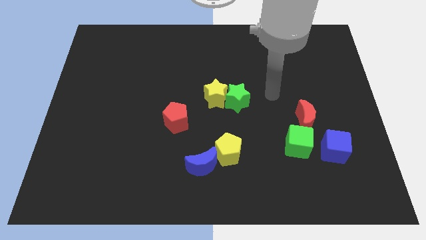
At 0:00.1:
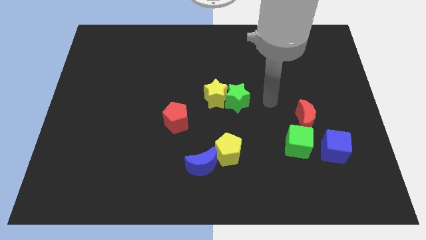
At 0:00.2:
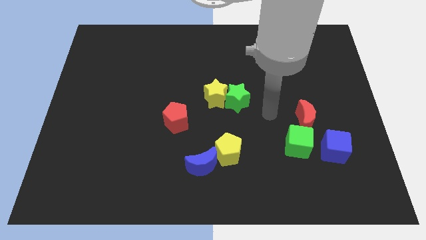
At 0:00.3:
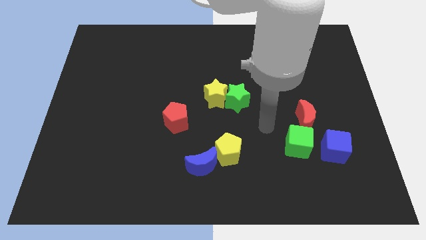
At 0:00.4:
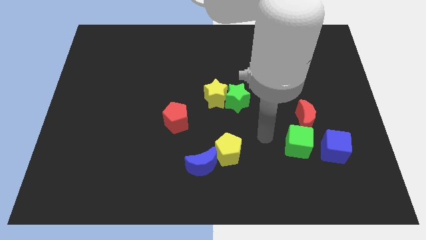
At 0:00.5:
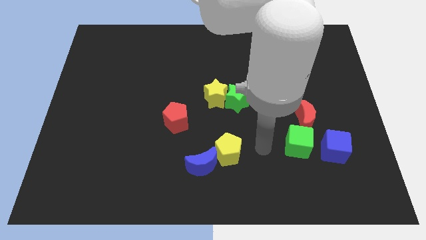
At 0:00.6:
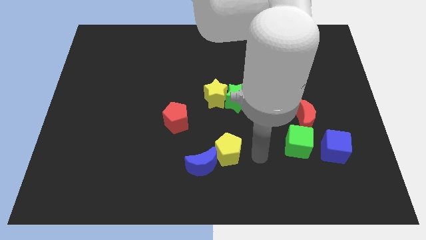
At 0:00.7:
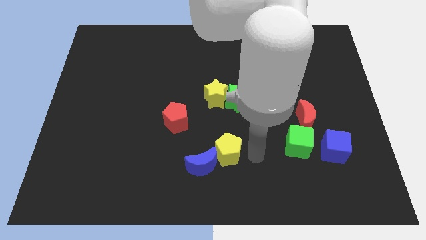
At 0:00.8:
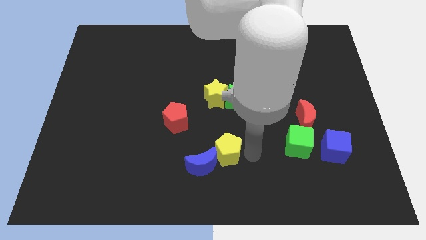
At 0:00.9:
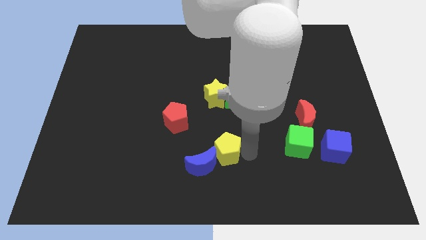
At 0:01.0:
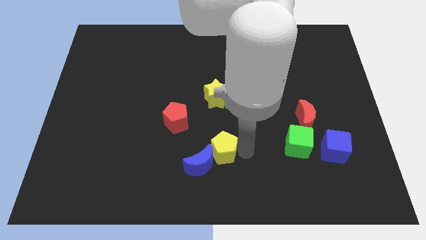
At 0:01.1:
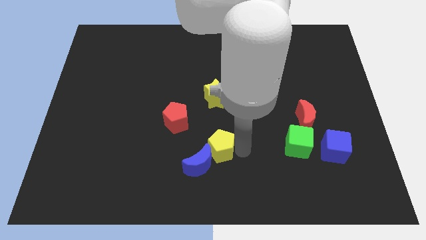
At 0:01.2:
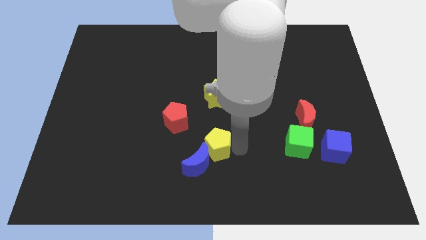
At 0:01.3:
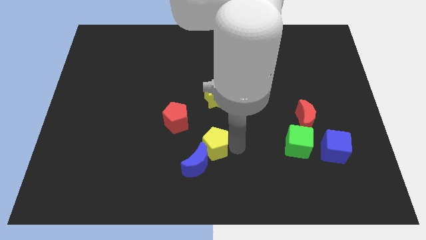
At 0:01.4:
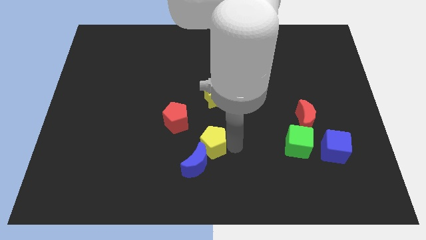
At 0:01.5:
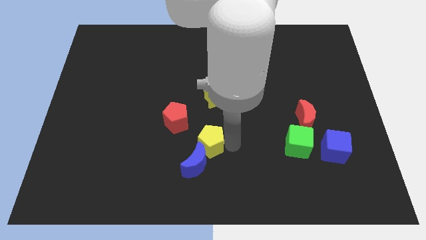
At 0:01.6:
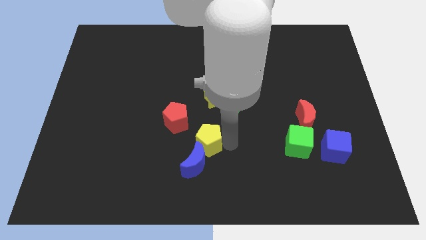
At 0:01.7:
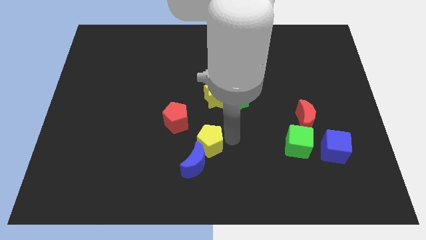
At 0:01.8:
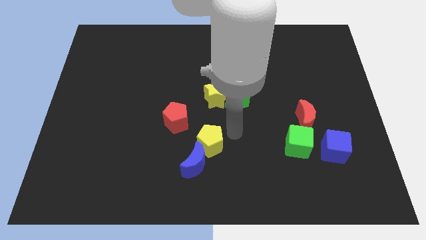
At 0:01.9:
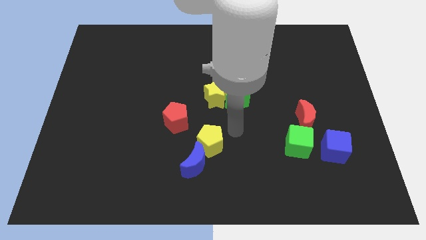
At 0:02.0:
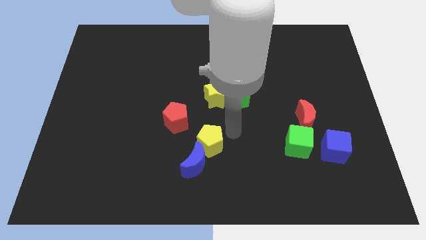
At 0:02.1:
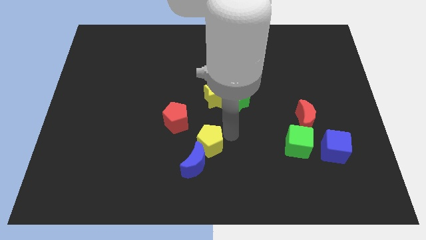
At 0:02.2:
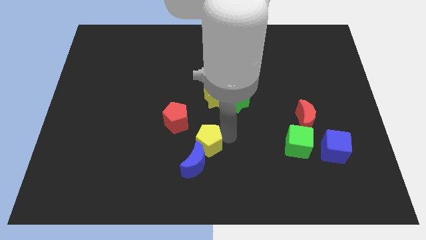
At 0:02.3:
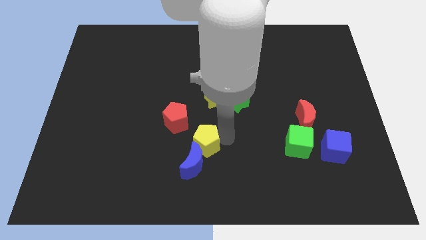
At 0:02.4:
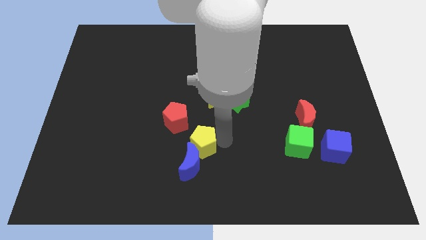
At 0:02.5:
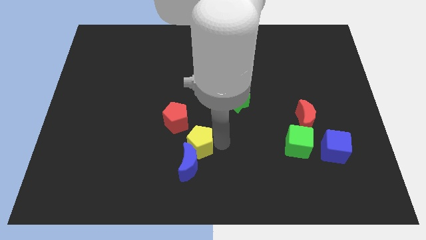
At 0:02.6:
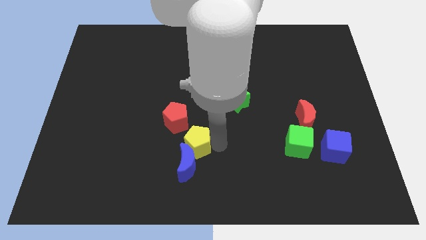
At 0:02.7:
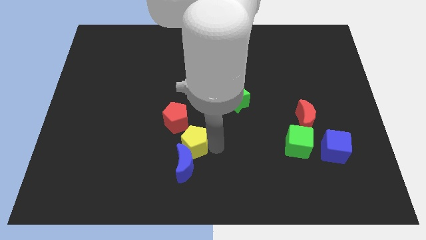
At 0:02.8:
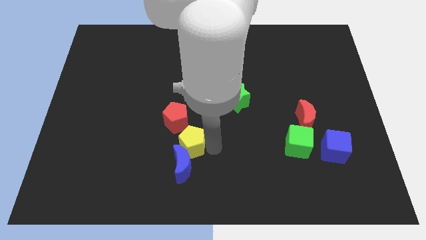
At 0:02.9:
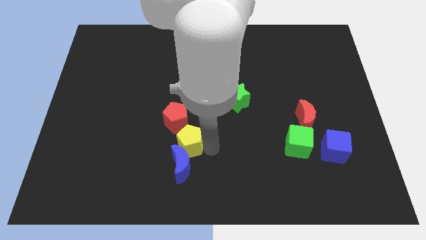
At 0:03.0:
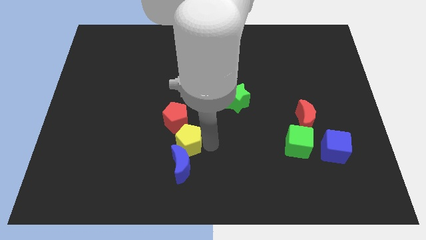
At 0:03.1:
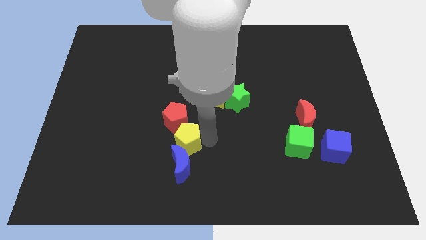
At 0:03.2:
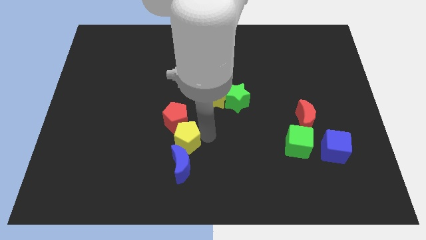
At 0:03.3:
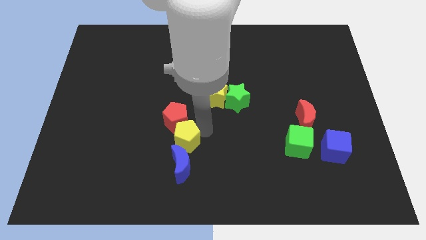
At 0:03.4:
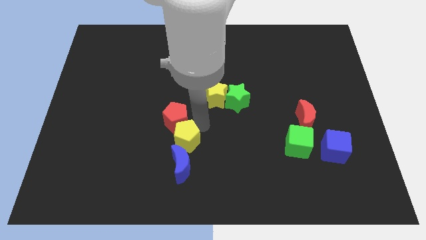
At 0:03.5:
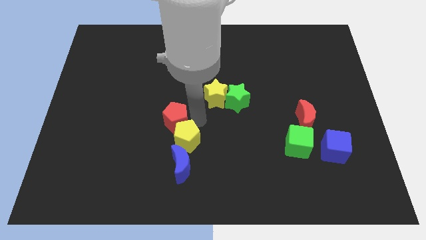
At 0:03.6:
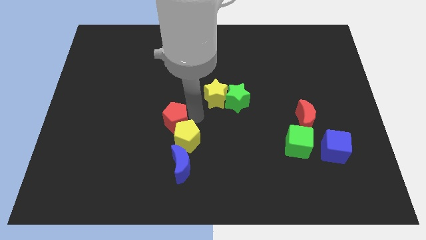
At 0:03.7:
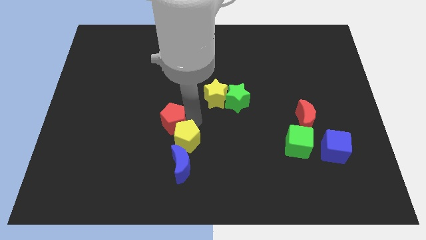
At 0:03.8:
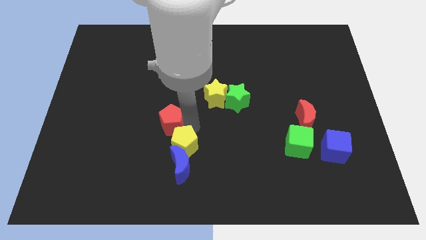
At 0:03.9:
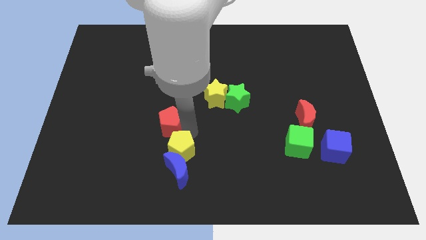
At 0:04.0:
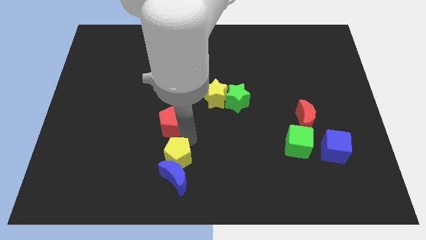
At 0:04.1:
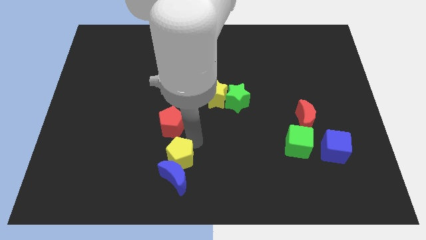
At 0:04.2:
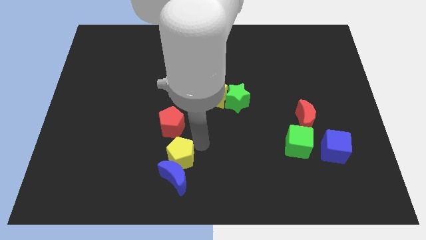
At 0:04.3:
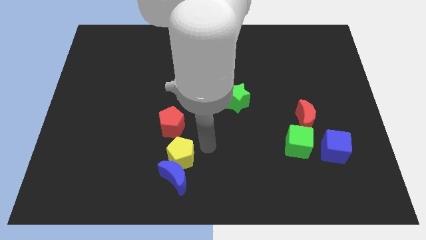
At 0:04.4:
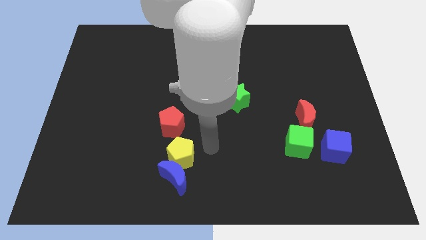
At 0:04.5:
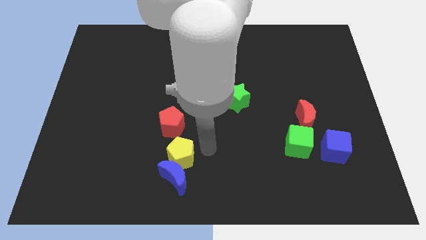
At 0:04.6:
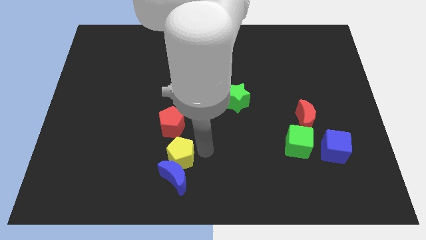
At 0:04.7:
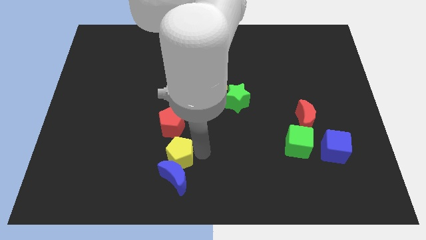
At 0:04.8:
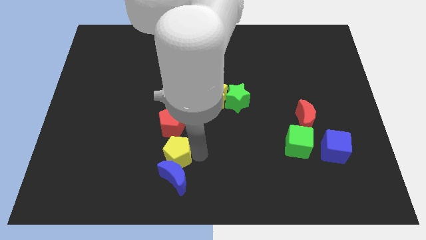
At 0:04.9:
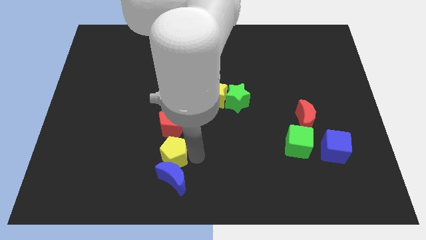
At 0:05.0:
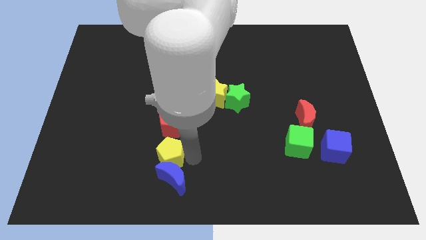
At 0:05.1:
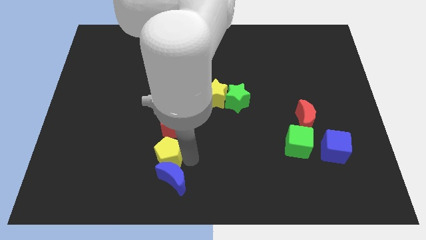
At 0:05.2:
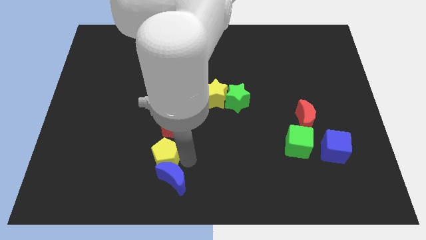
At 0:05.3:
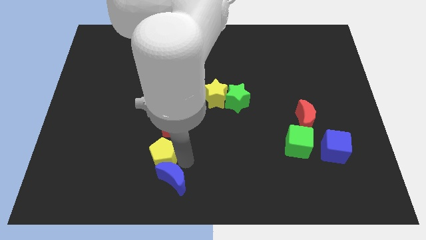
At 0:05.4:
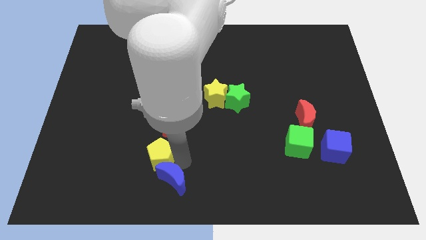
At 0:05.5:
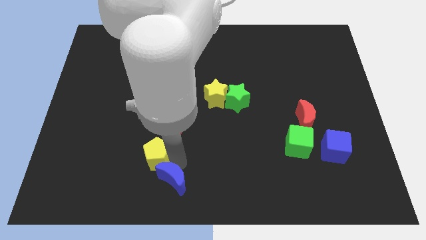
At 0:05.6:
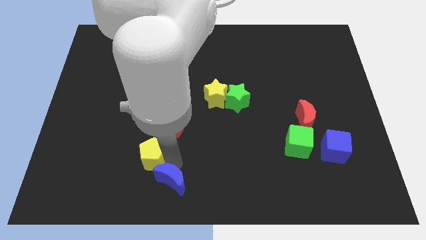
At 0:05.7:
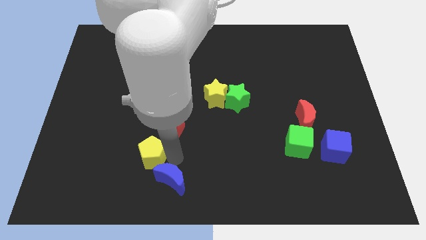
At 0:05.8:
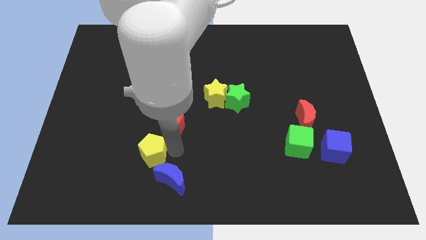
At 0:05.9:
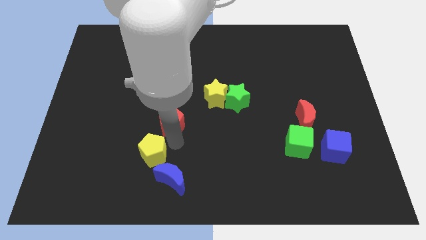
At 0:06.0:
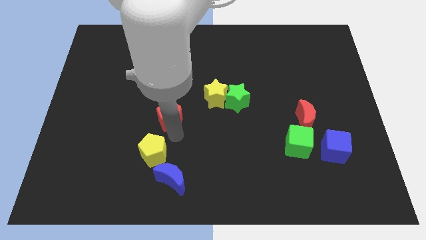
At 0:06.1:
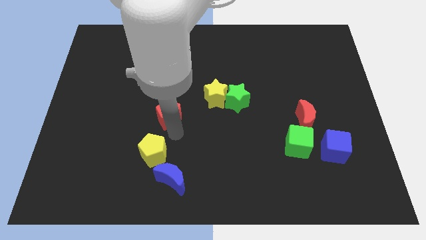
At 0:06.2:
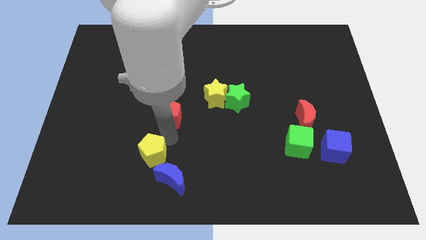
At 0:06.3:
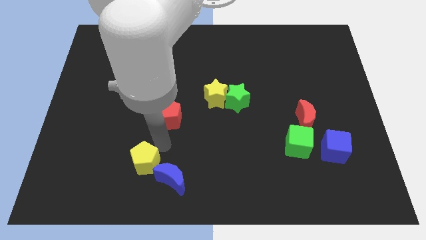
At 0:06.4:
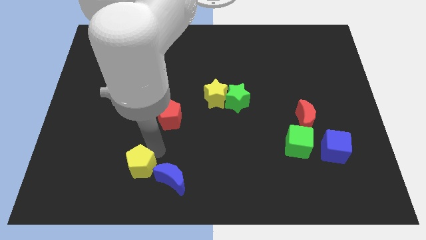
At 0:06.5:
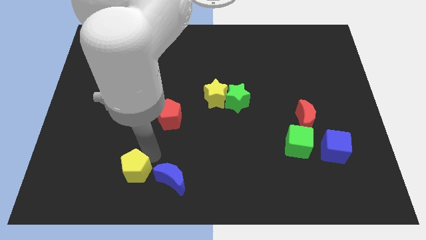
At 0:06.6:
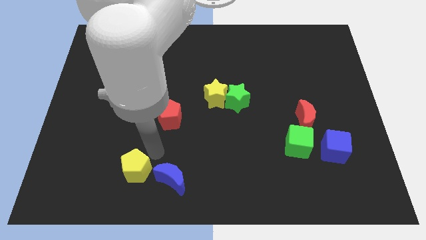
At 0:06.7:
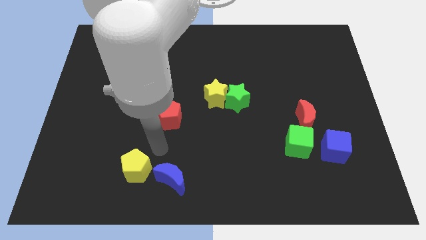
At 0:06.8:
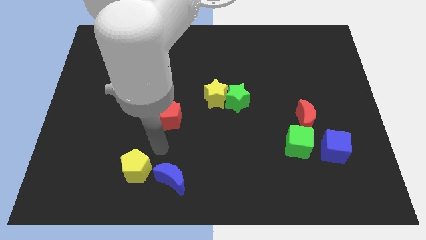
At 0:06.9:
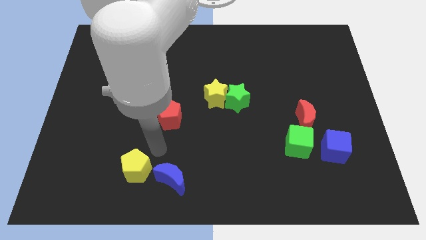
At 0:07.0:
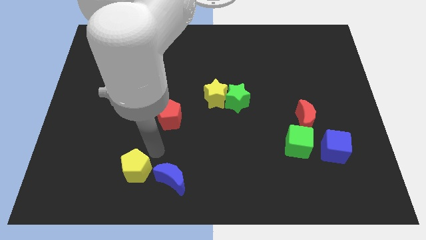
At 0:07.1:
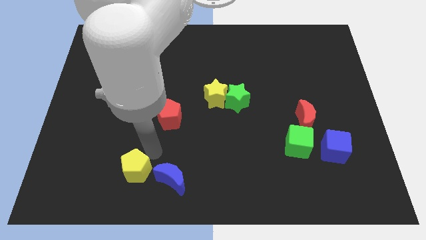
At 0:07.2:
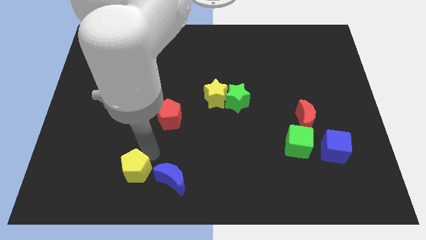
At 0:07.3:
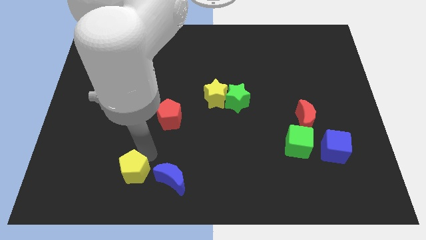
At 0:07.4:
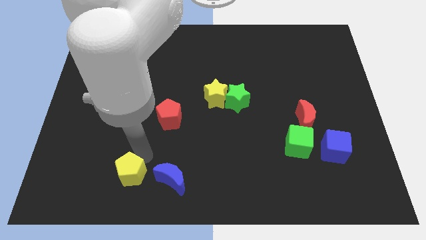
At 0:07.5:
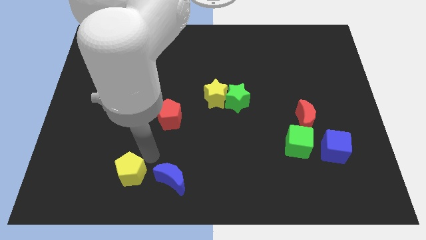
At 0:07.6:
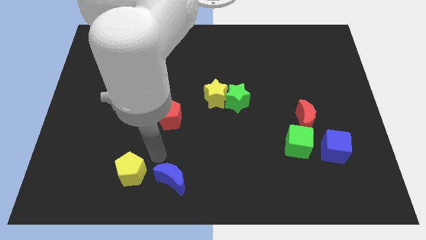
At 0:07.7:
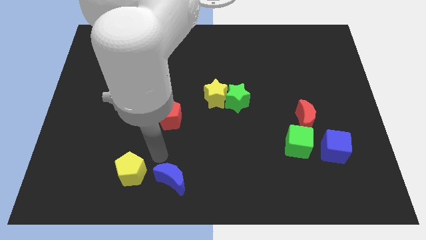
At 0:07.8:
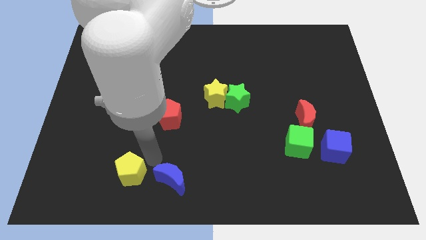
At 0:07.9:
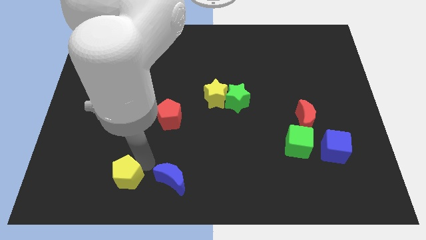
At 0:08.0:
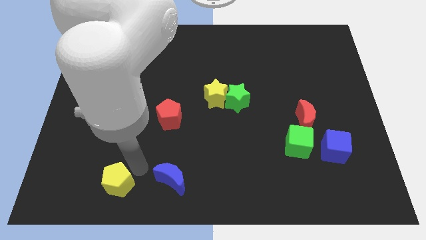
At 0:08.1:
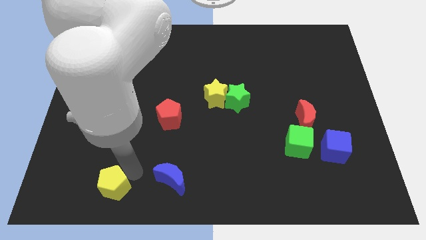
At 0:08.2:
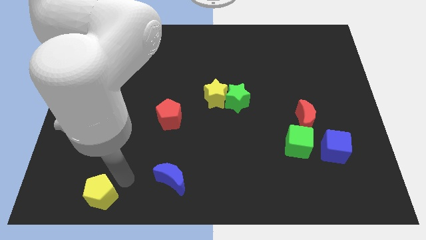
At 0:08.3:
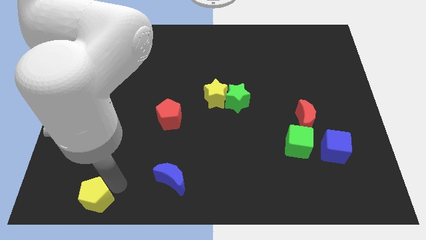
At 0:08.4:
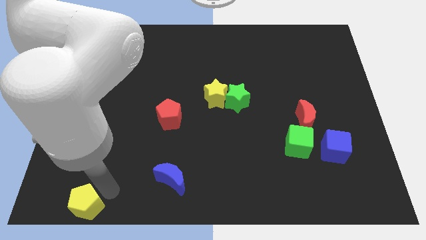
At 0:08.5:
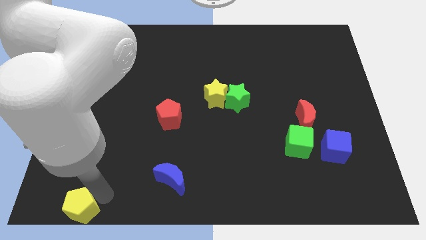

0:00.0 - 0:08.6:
push the yellow pentagon to the bottom left corner
